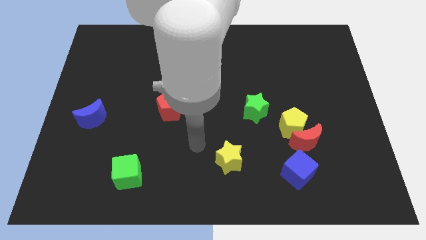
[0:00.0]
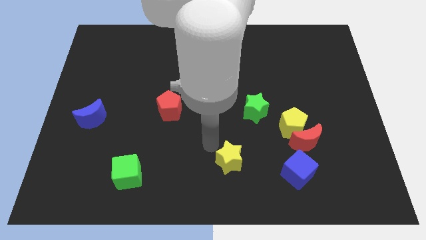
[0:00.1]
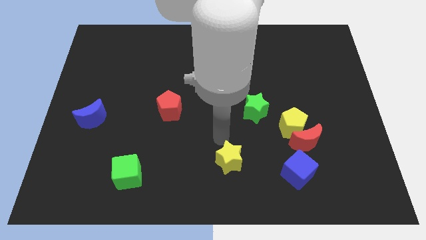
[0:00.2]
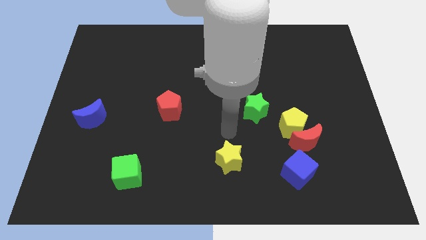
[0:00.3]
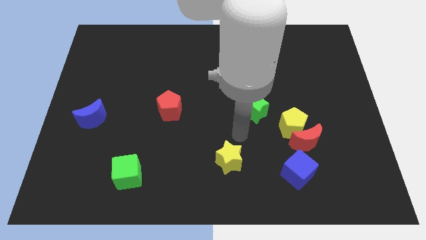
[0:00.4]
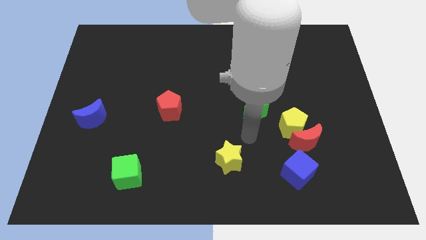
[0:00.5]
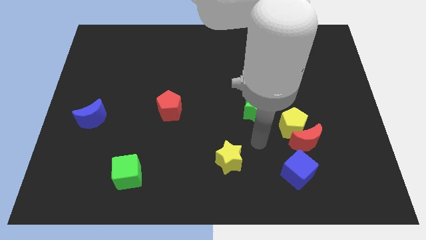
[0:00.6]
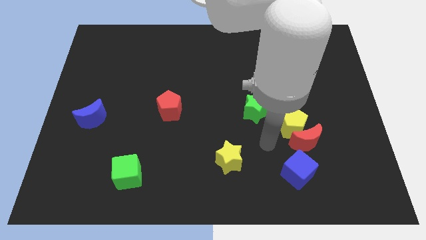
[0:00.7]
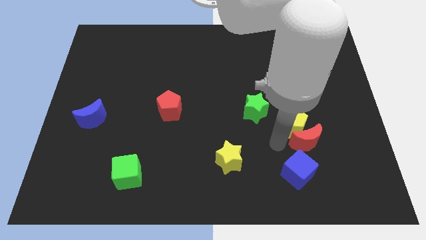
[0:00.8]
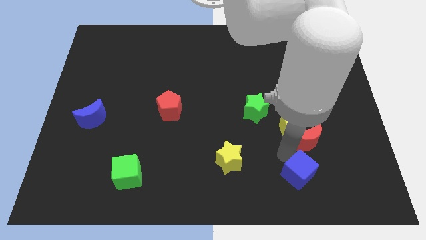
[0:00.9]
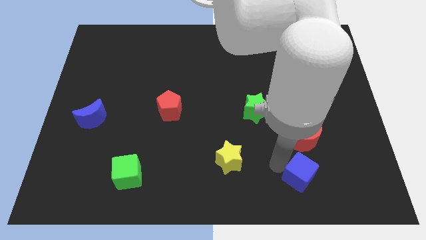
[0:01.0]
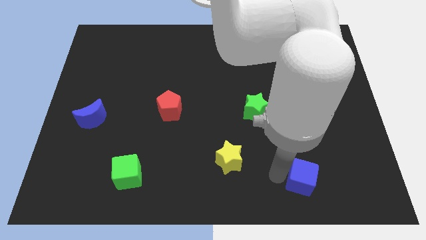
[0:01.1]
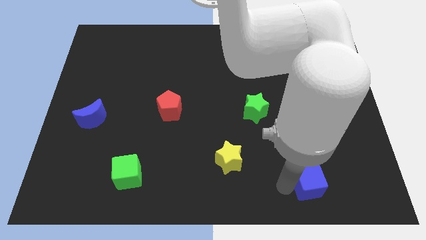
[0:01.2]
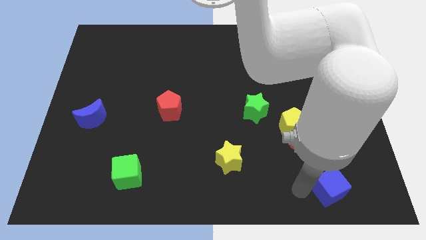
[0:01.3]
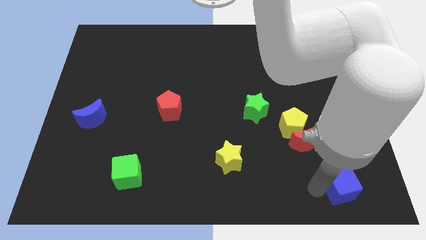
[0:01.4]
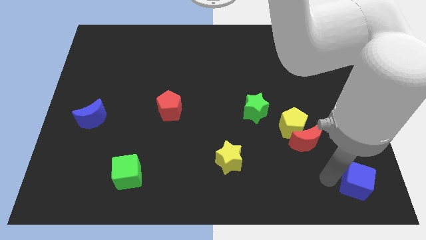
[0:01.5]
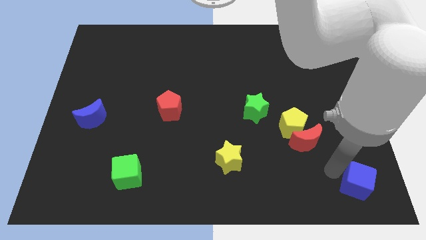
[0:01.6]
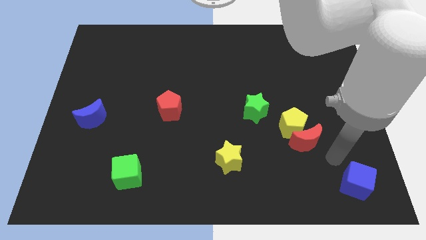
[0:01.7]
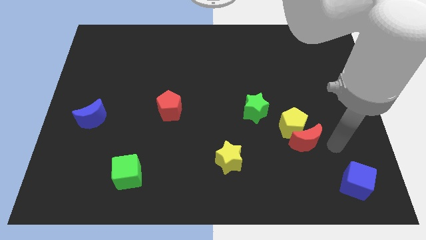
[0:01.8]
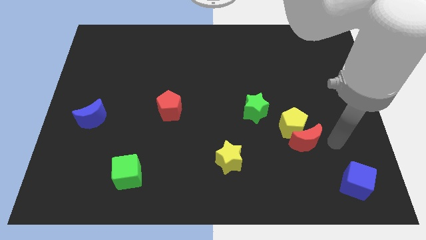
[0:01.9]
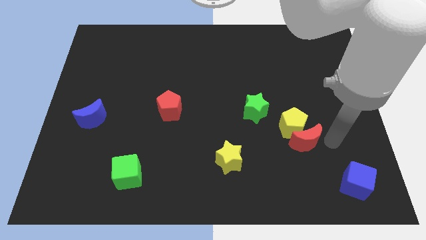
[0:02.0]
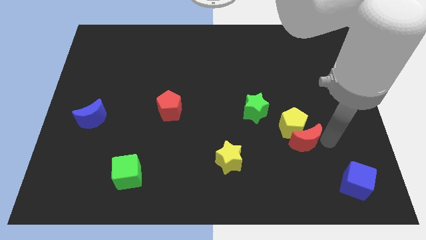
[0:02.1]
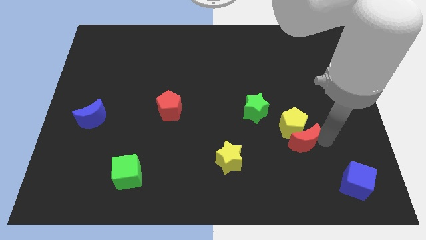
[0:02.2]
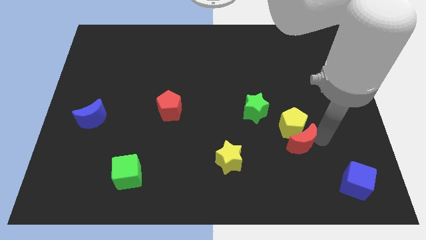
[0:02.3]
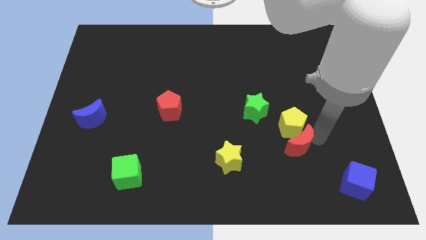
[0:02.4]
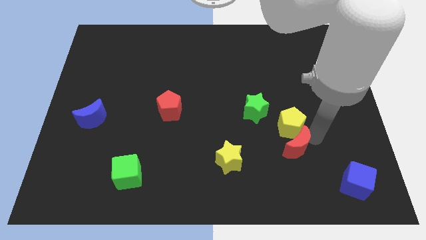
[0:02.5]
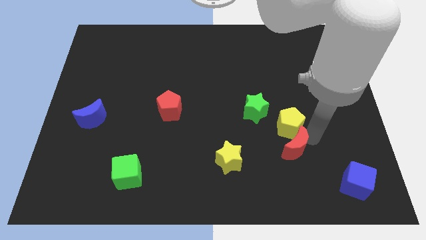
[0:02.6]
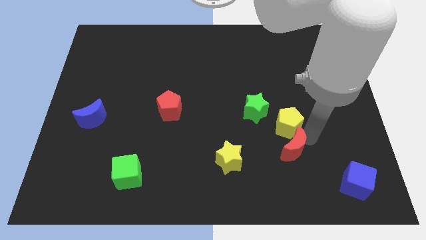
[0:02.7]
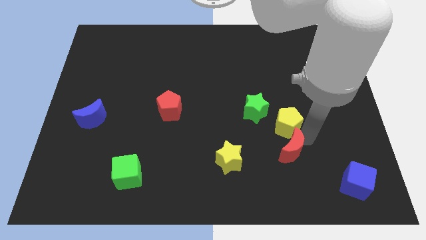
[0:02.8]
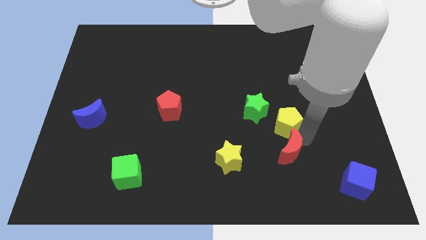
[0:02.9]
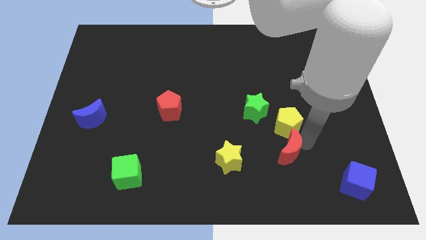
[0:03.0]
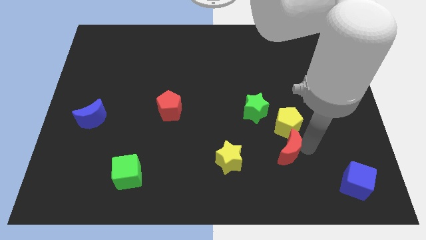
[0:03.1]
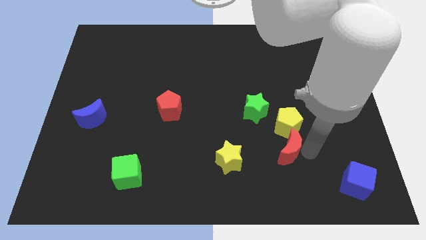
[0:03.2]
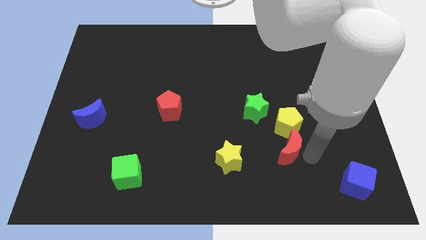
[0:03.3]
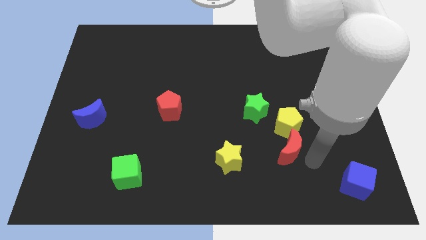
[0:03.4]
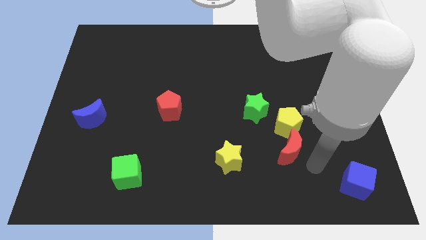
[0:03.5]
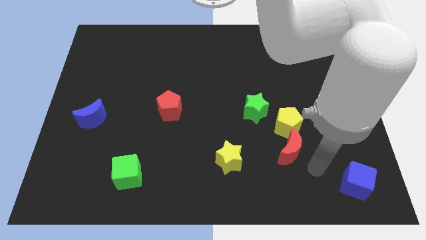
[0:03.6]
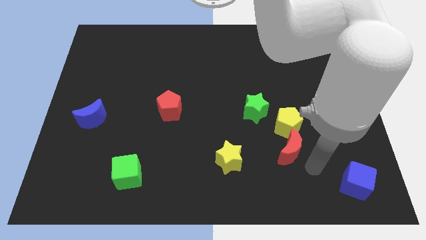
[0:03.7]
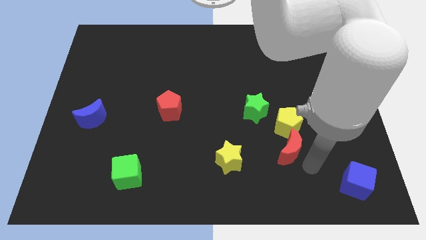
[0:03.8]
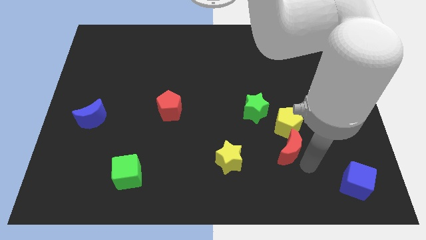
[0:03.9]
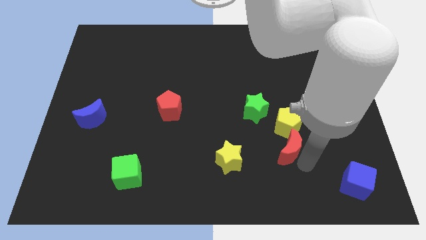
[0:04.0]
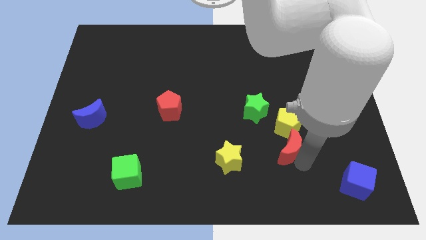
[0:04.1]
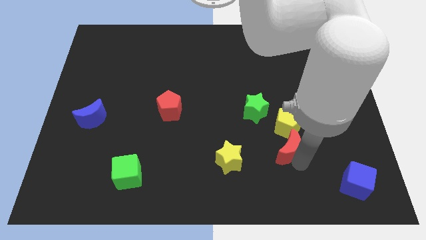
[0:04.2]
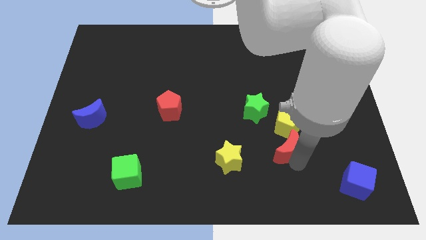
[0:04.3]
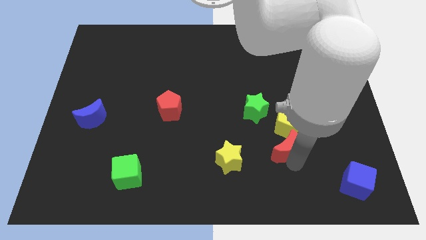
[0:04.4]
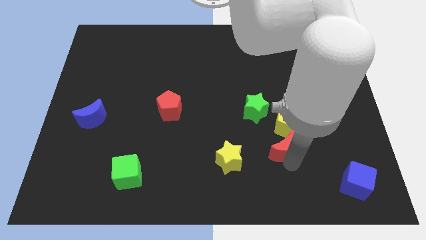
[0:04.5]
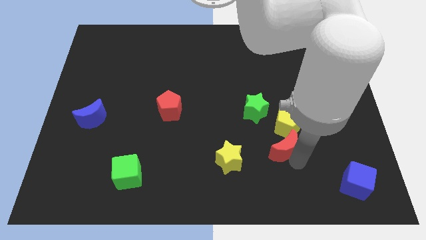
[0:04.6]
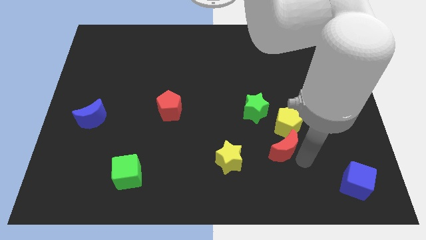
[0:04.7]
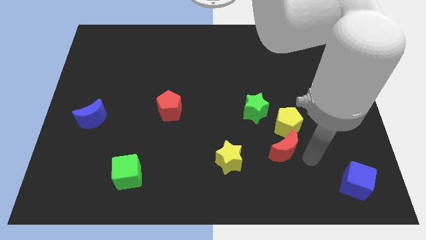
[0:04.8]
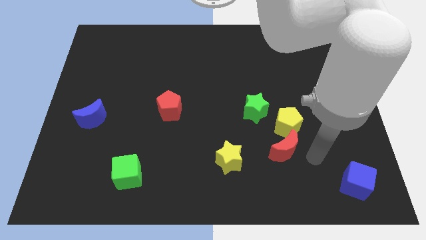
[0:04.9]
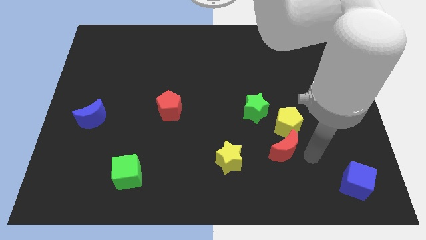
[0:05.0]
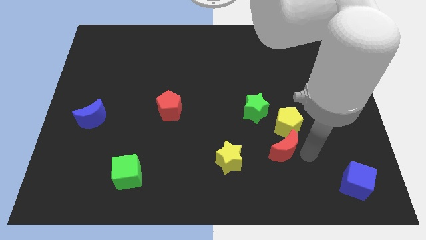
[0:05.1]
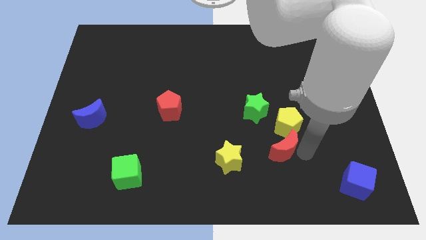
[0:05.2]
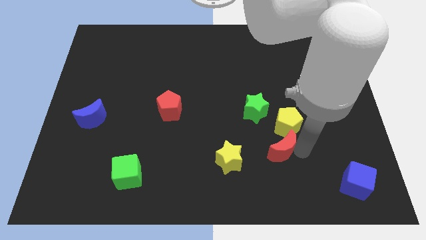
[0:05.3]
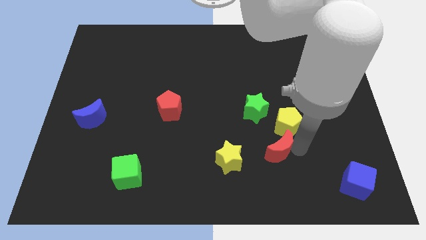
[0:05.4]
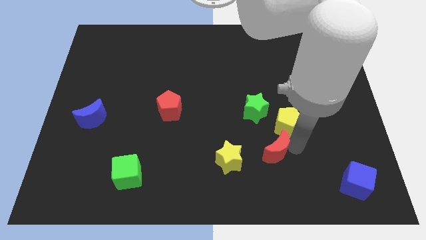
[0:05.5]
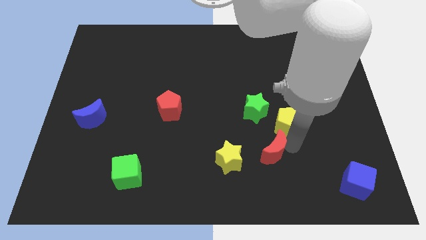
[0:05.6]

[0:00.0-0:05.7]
push the red moon a little left

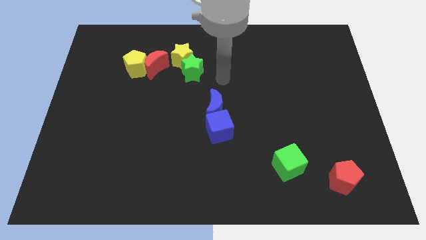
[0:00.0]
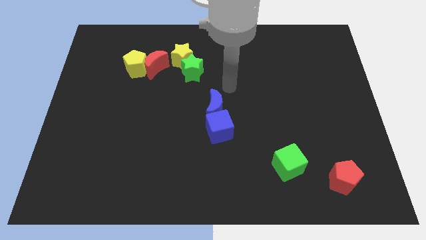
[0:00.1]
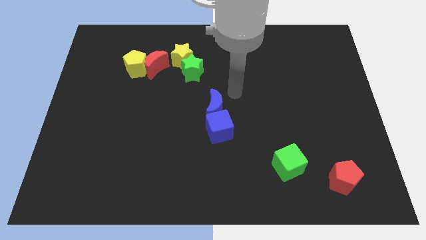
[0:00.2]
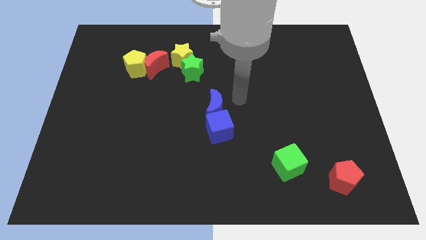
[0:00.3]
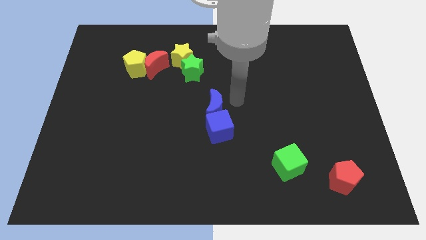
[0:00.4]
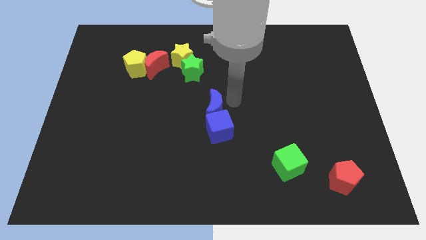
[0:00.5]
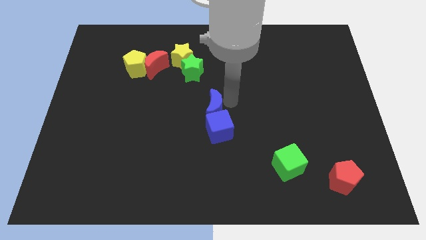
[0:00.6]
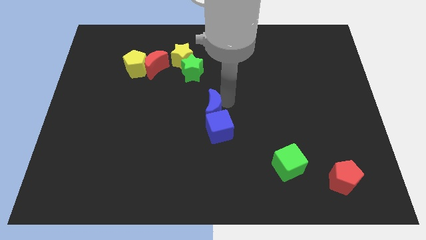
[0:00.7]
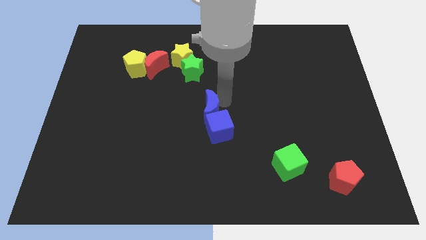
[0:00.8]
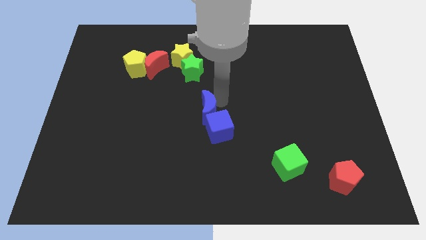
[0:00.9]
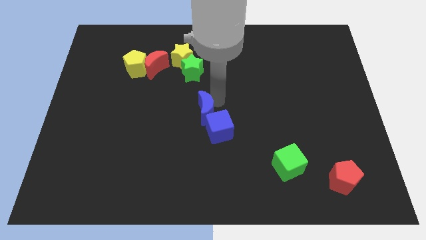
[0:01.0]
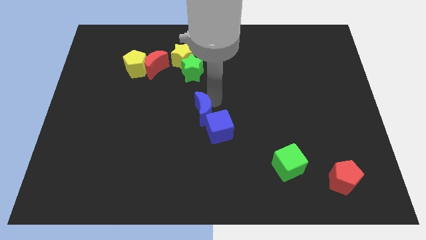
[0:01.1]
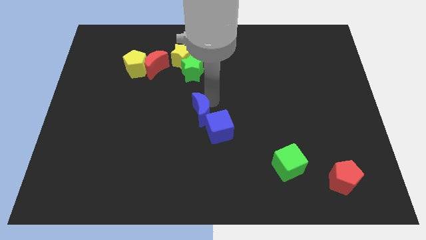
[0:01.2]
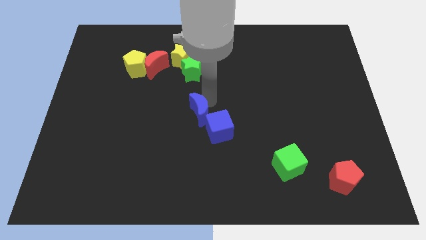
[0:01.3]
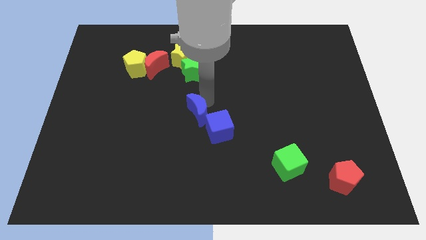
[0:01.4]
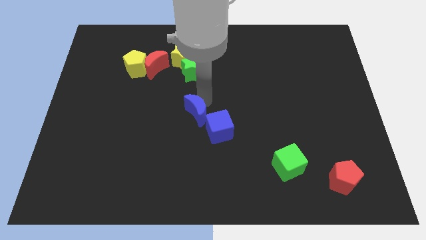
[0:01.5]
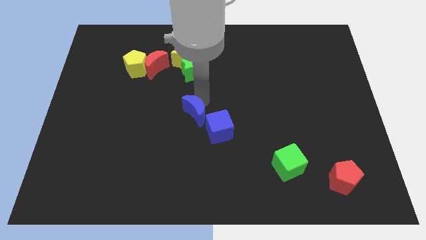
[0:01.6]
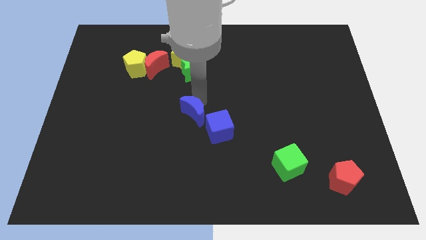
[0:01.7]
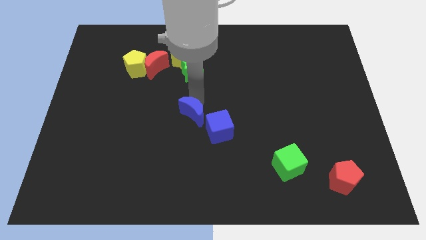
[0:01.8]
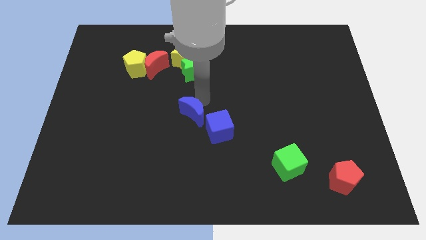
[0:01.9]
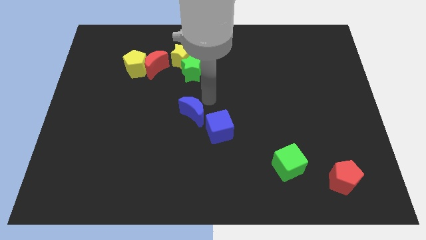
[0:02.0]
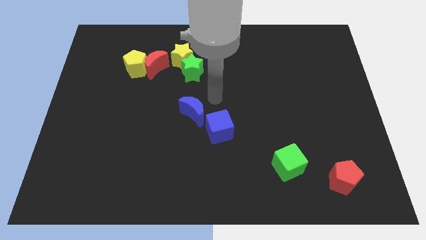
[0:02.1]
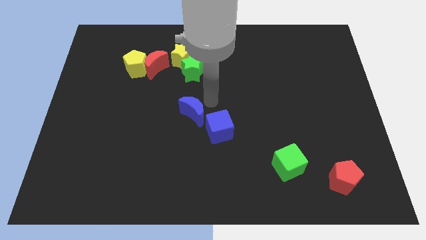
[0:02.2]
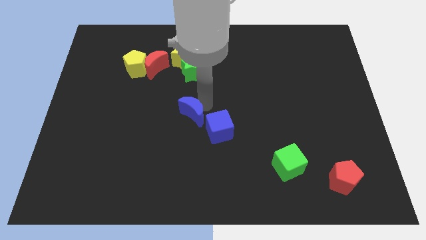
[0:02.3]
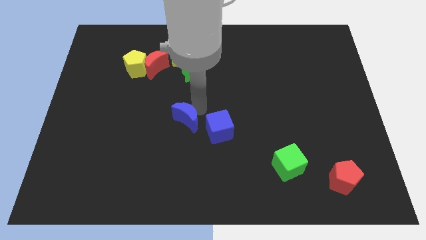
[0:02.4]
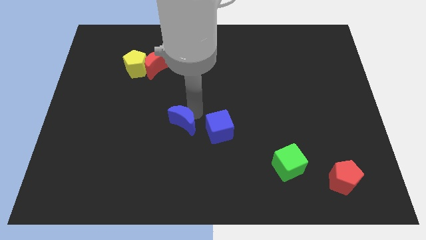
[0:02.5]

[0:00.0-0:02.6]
move the blue moon downwards and left diagonally a bit
